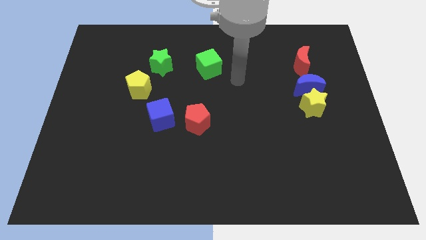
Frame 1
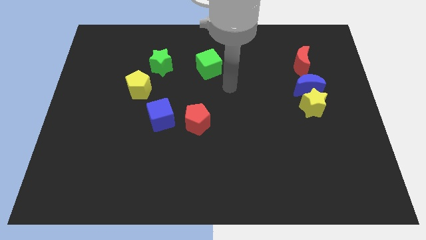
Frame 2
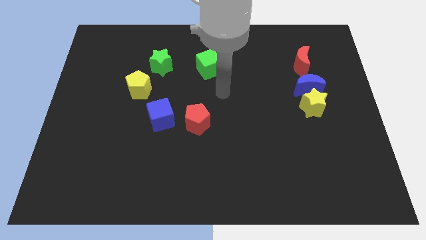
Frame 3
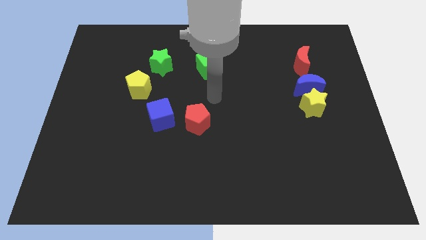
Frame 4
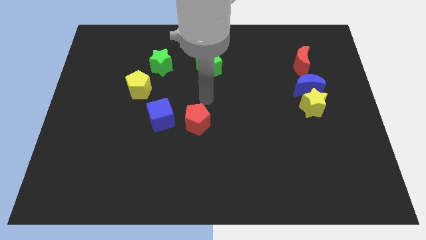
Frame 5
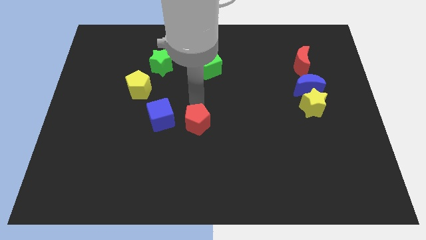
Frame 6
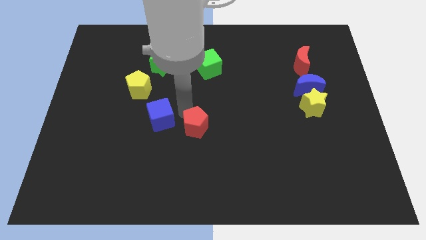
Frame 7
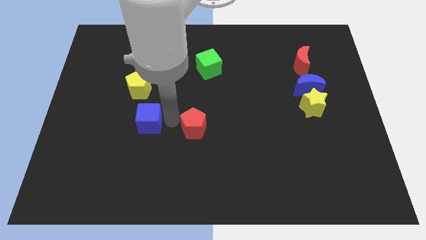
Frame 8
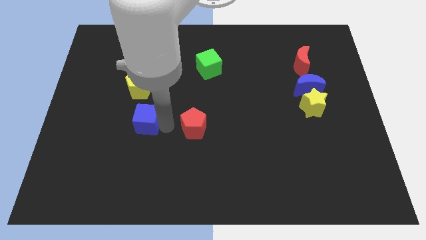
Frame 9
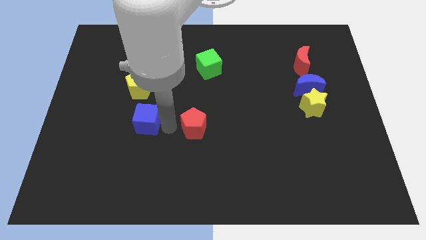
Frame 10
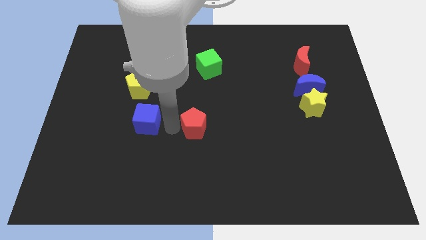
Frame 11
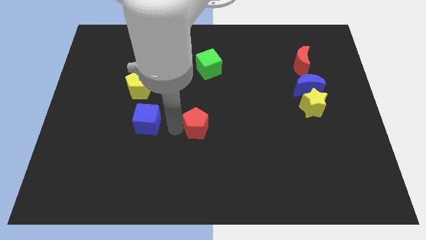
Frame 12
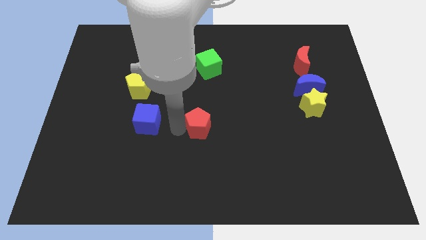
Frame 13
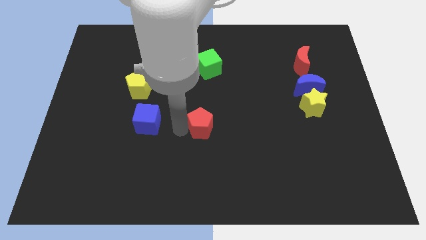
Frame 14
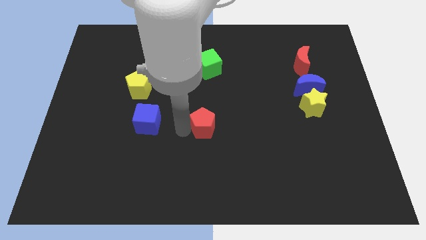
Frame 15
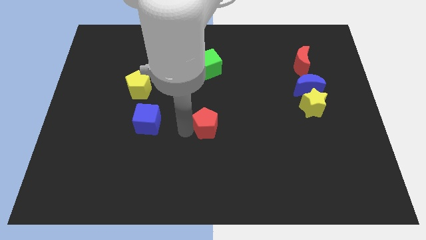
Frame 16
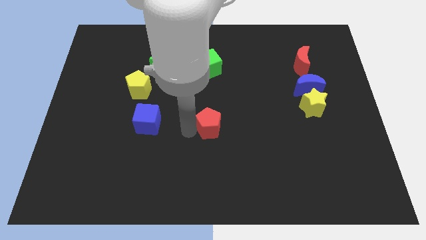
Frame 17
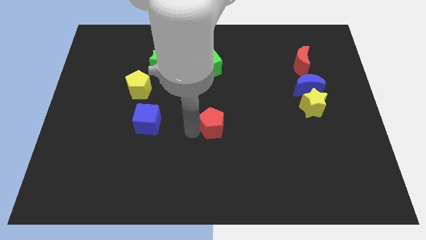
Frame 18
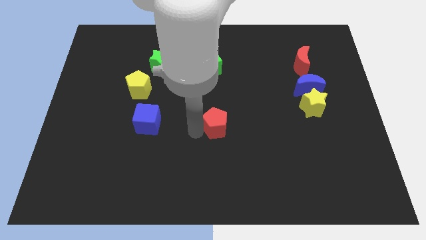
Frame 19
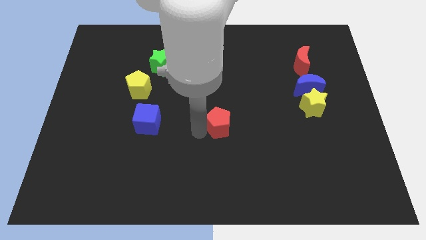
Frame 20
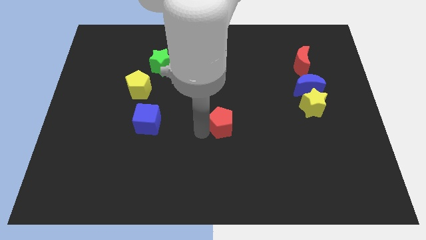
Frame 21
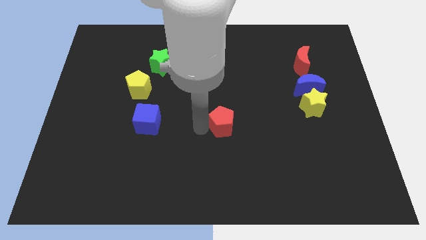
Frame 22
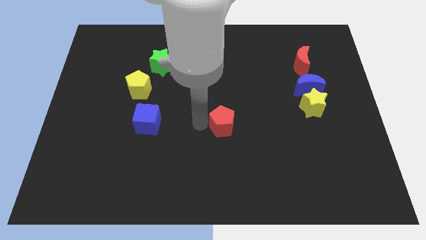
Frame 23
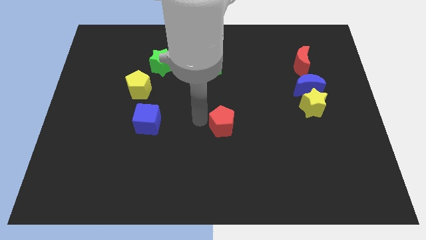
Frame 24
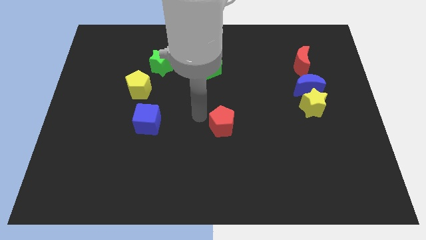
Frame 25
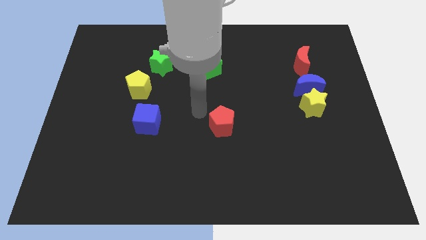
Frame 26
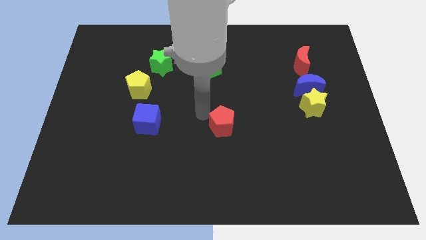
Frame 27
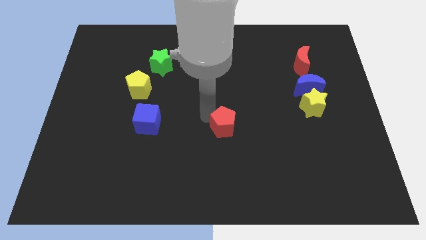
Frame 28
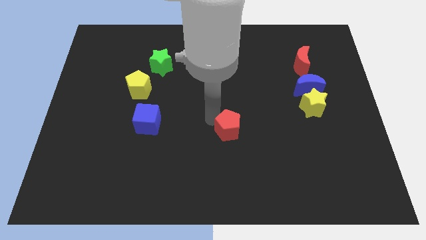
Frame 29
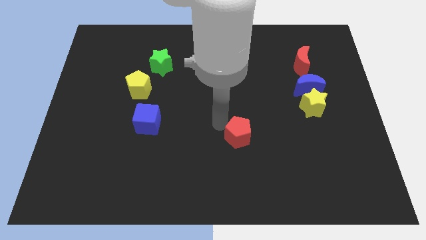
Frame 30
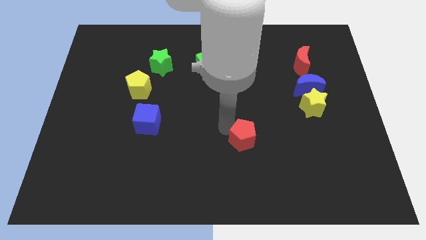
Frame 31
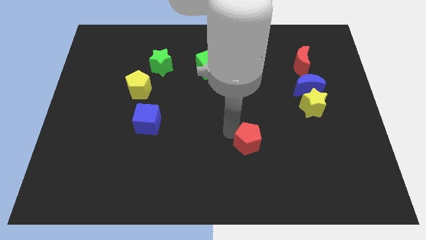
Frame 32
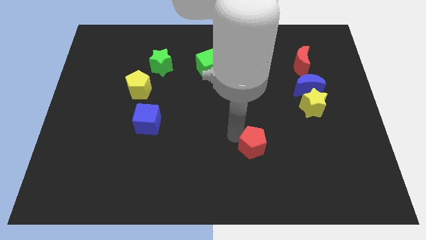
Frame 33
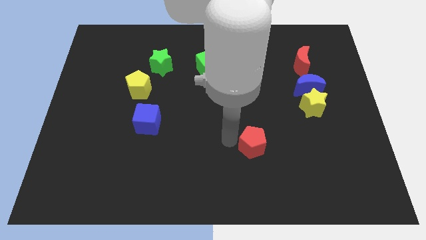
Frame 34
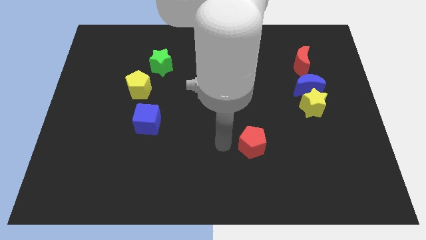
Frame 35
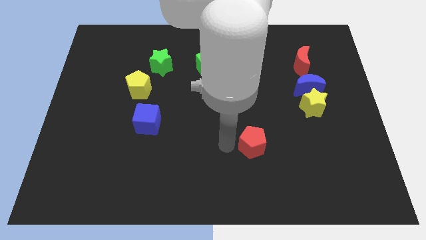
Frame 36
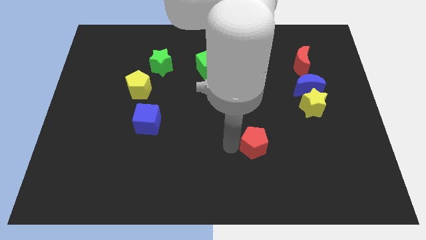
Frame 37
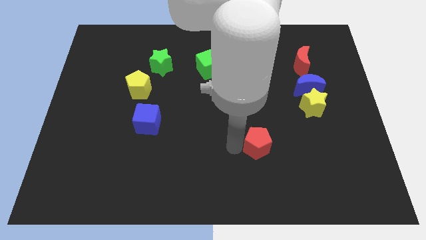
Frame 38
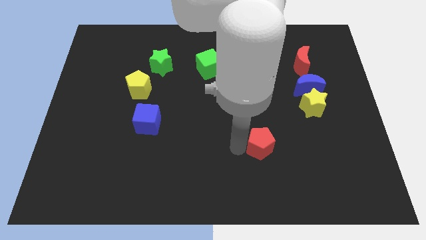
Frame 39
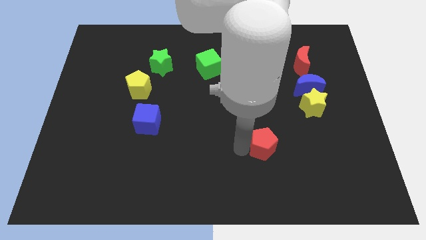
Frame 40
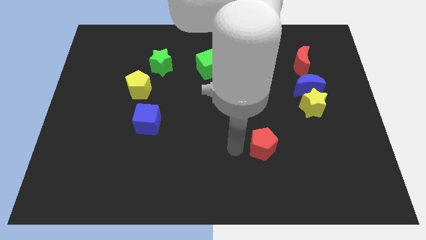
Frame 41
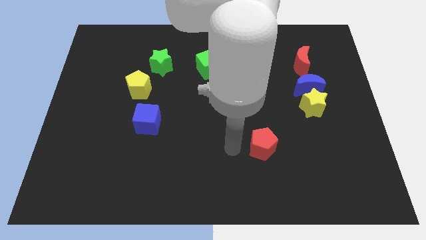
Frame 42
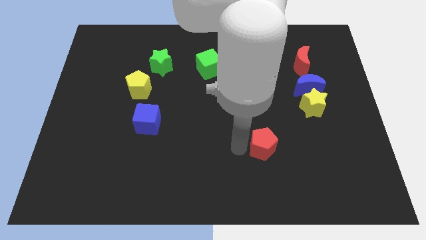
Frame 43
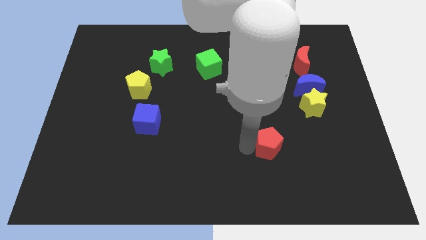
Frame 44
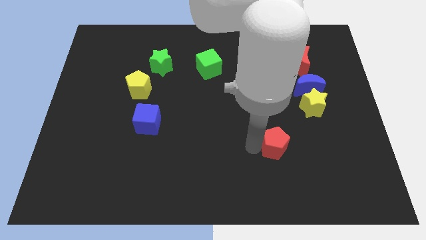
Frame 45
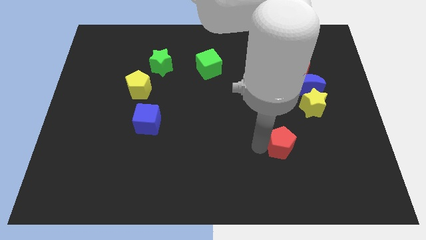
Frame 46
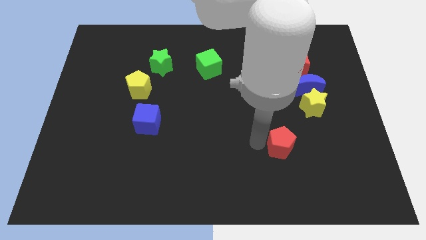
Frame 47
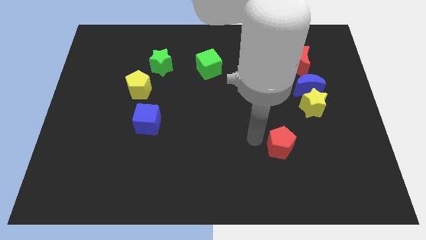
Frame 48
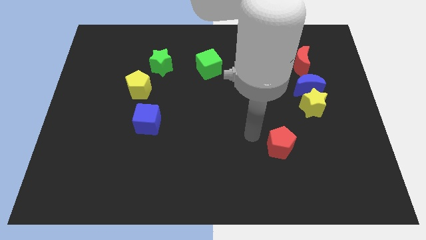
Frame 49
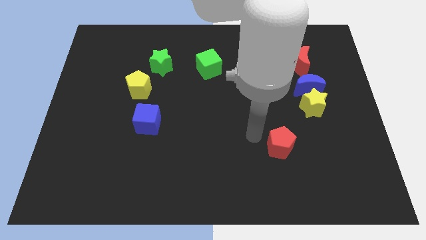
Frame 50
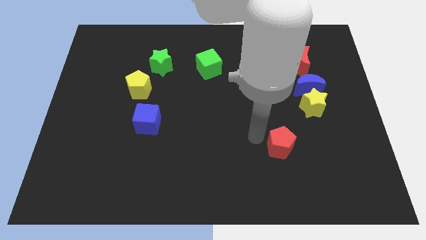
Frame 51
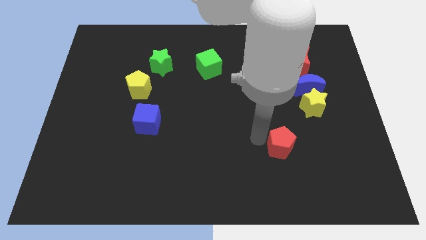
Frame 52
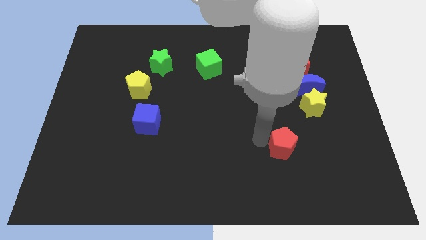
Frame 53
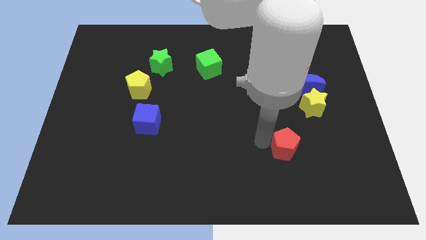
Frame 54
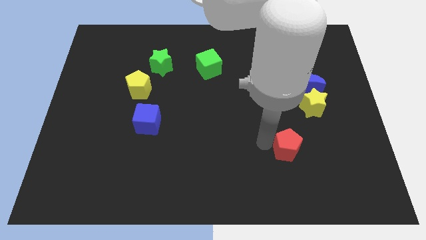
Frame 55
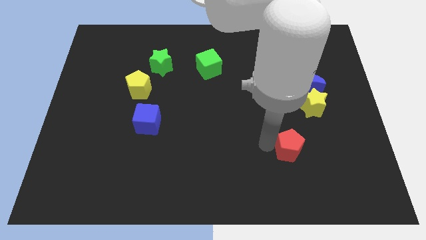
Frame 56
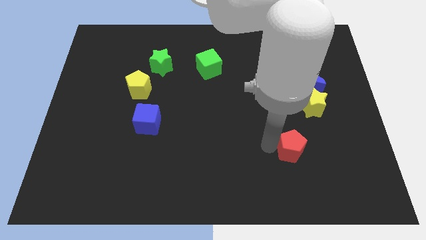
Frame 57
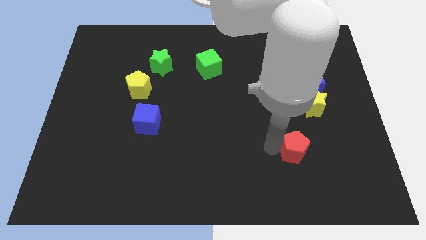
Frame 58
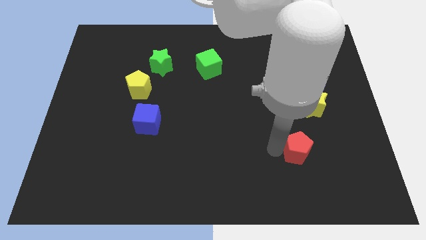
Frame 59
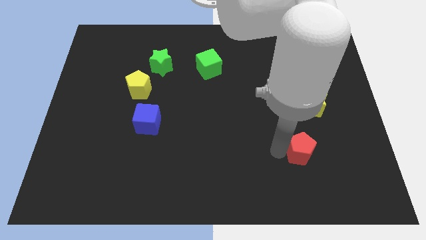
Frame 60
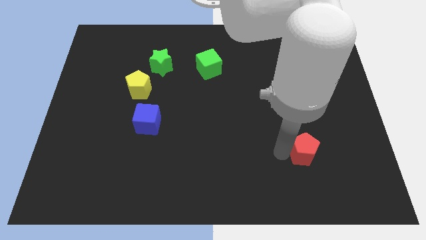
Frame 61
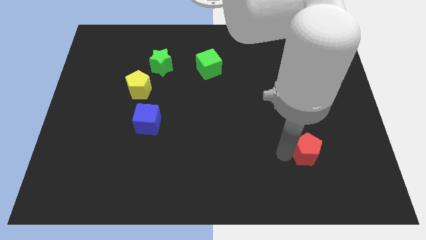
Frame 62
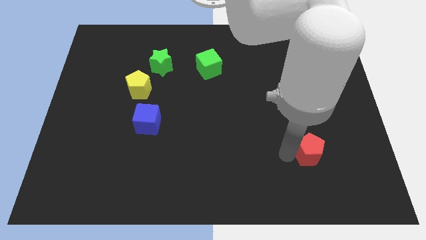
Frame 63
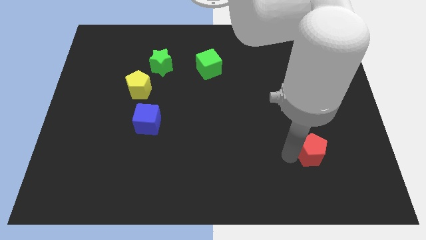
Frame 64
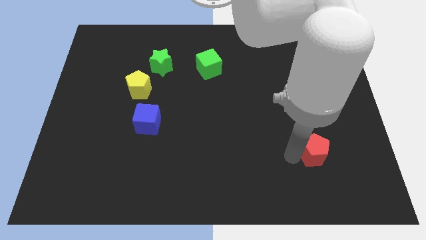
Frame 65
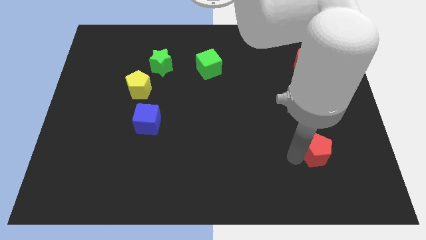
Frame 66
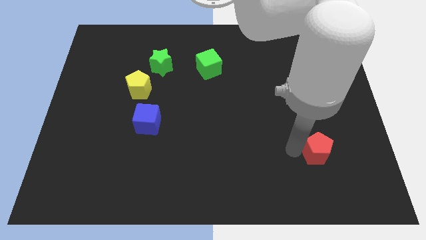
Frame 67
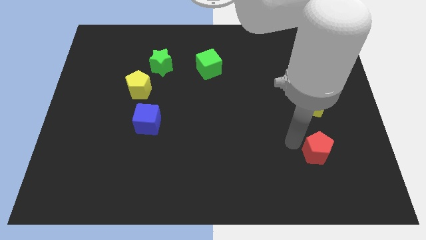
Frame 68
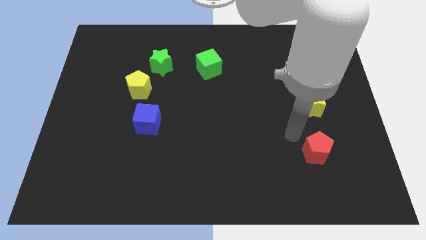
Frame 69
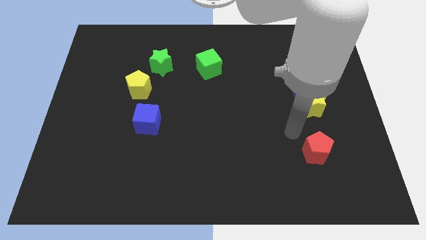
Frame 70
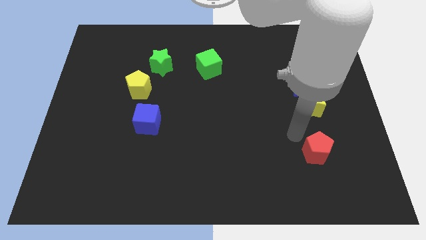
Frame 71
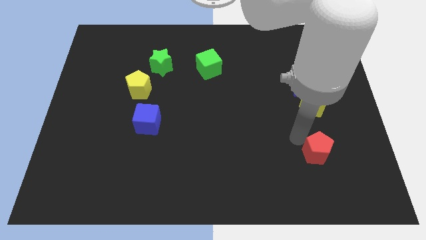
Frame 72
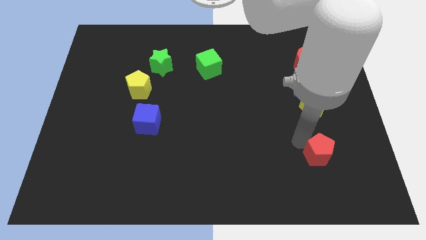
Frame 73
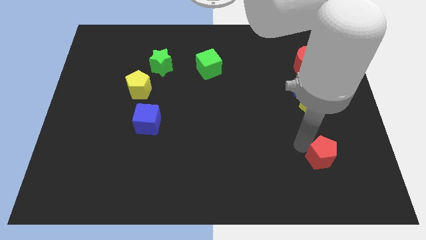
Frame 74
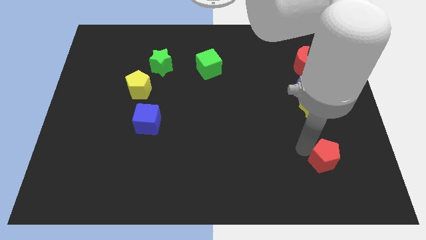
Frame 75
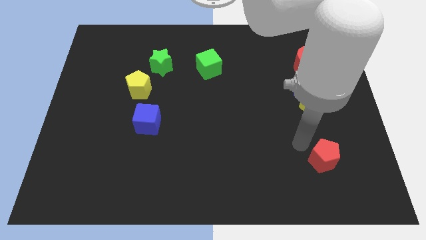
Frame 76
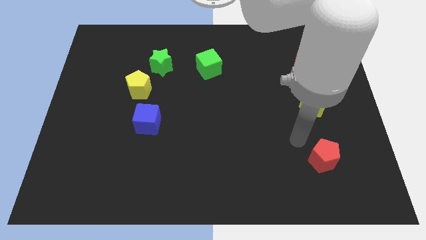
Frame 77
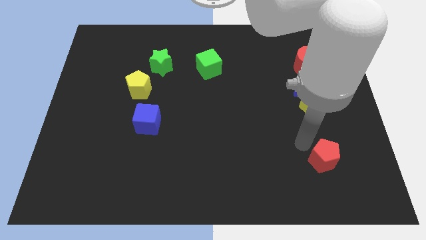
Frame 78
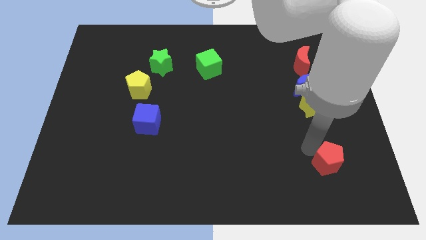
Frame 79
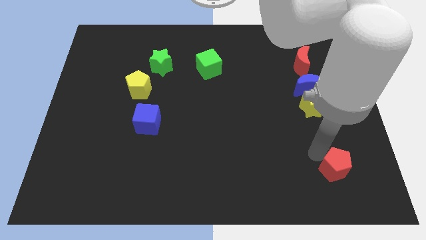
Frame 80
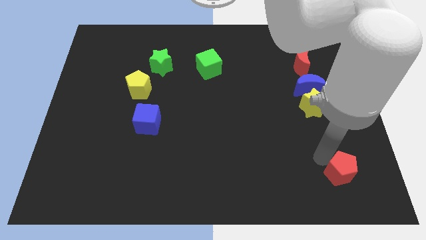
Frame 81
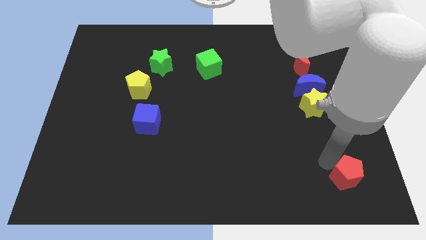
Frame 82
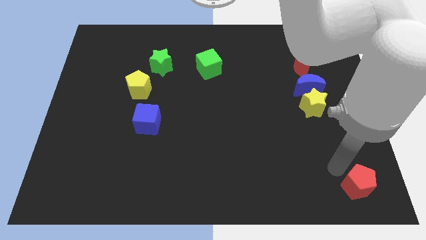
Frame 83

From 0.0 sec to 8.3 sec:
put the red pentagon to the bottom right of the board
